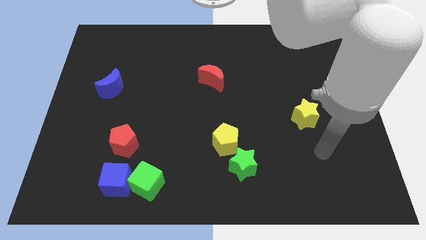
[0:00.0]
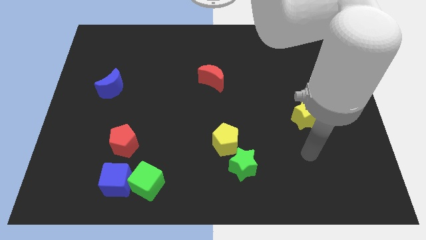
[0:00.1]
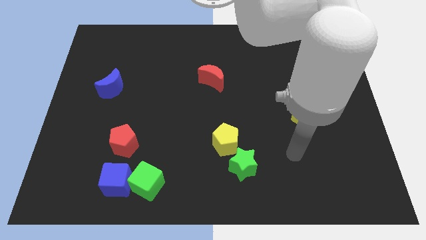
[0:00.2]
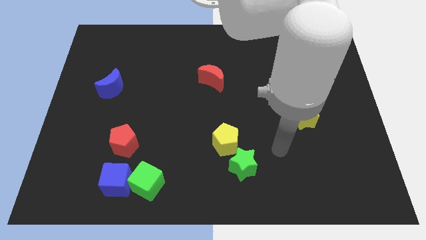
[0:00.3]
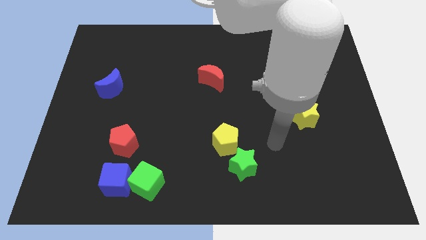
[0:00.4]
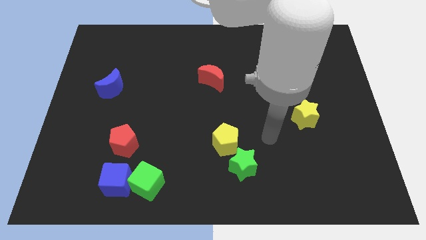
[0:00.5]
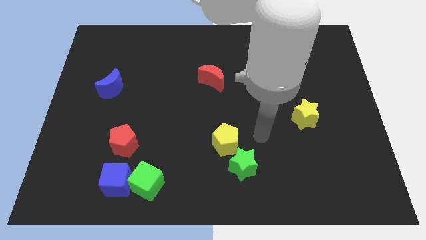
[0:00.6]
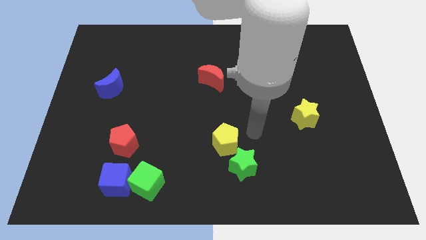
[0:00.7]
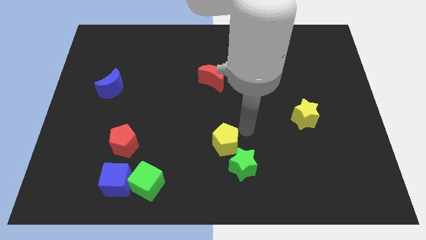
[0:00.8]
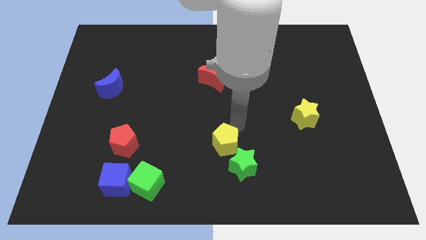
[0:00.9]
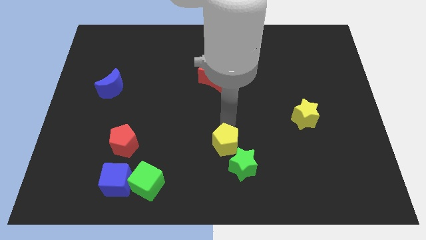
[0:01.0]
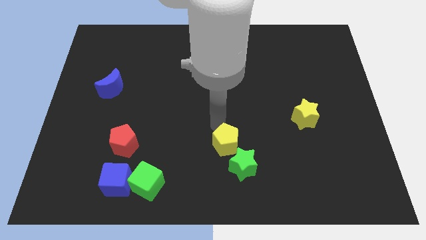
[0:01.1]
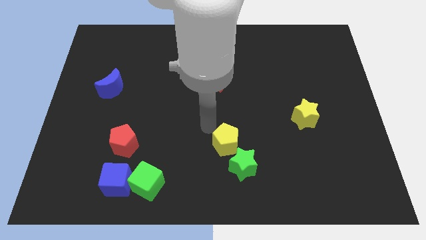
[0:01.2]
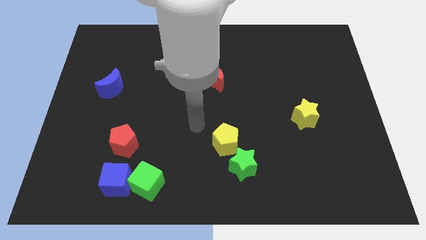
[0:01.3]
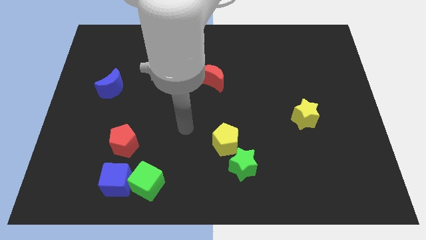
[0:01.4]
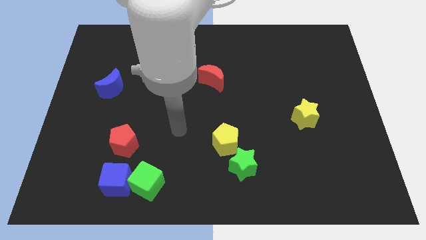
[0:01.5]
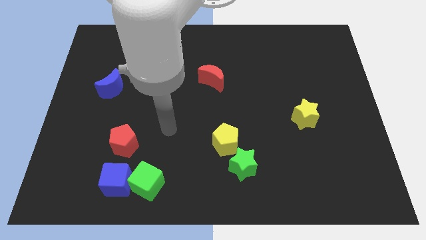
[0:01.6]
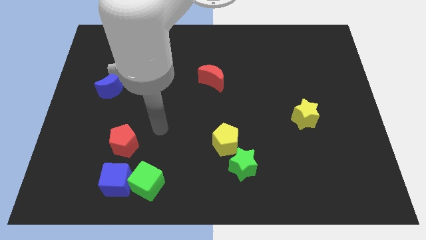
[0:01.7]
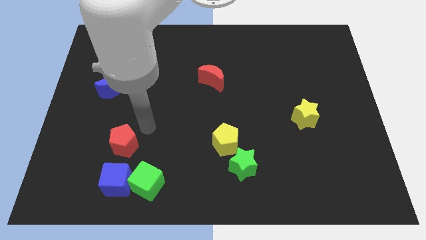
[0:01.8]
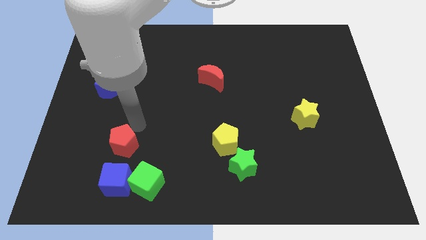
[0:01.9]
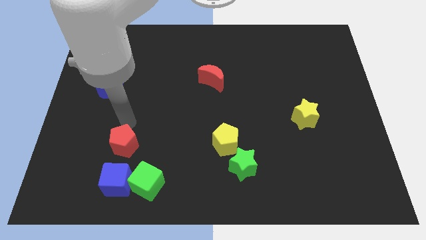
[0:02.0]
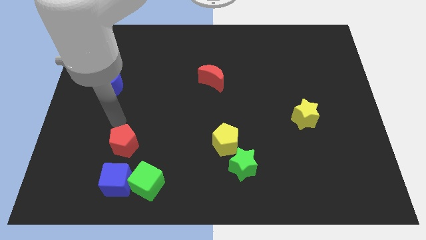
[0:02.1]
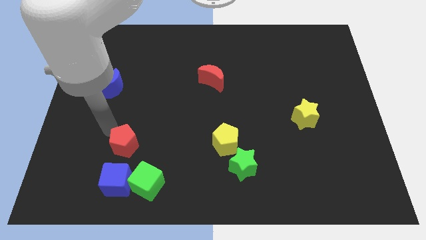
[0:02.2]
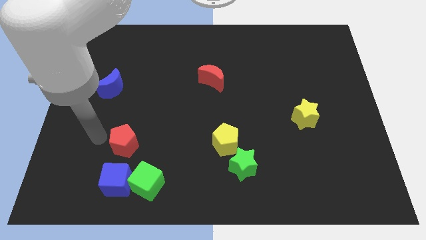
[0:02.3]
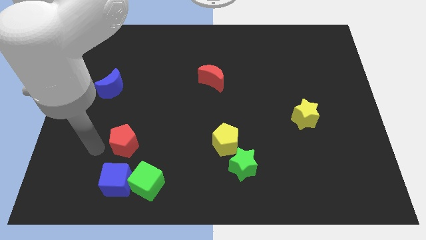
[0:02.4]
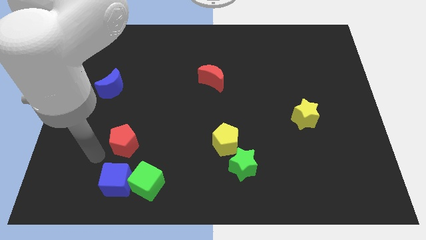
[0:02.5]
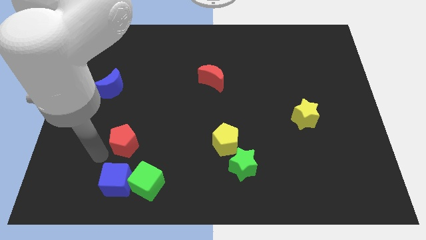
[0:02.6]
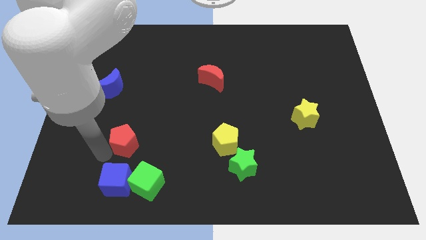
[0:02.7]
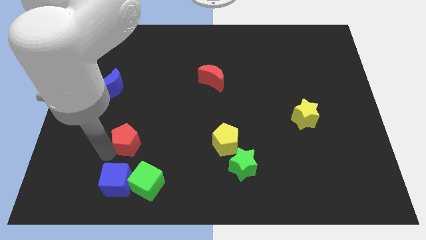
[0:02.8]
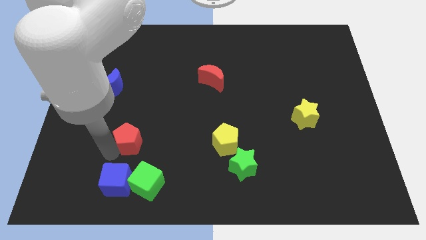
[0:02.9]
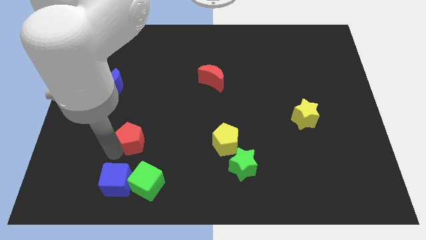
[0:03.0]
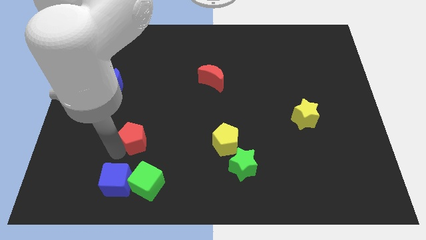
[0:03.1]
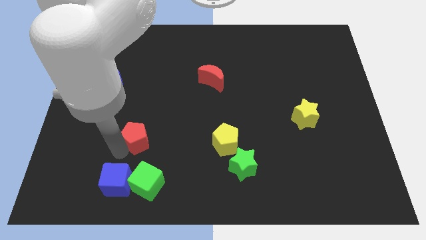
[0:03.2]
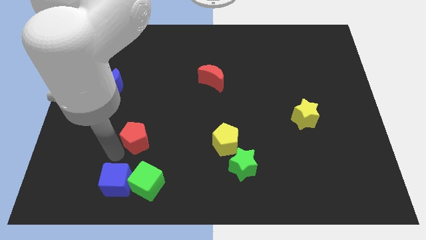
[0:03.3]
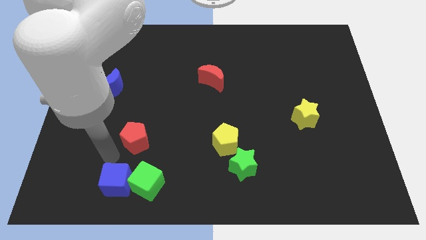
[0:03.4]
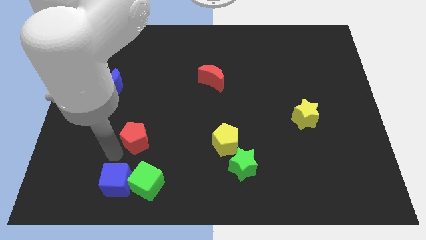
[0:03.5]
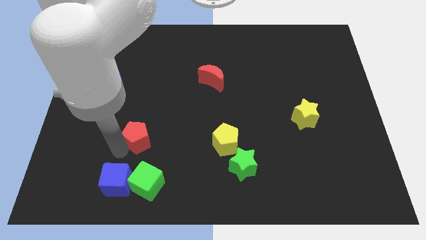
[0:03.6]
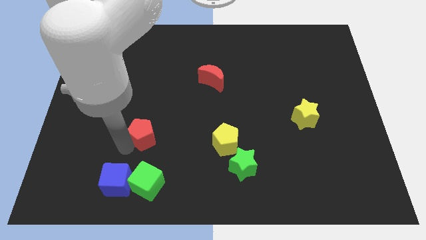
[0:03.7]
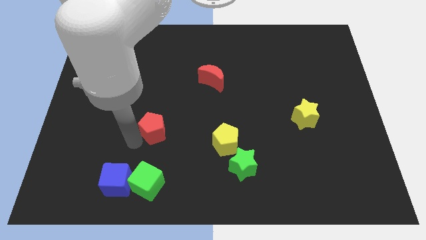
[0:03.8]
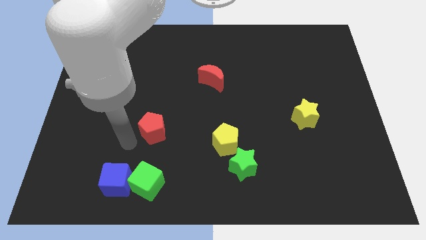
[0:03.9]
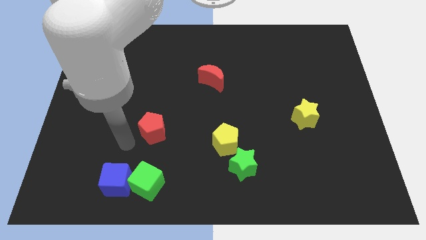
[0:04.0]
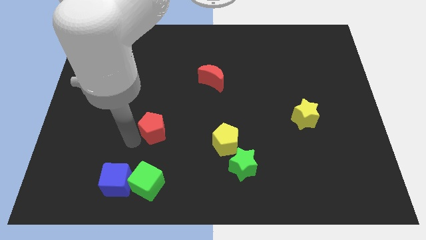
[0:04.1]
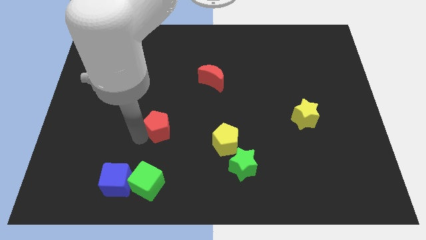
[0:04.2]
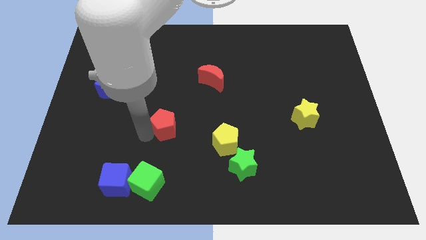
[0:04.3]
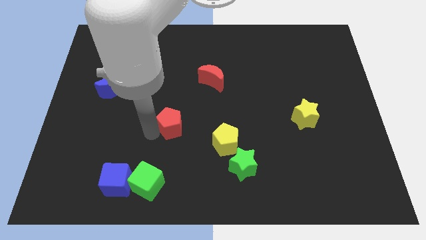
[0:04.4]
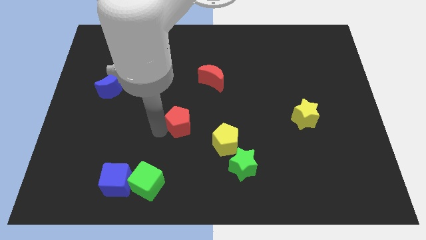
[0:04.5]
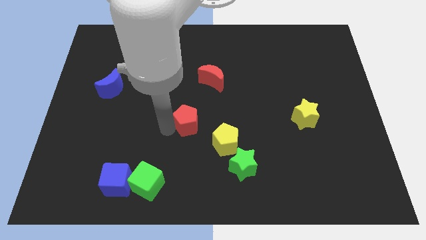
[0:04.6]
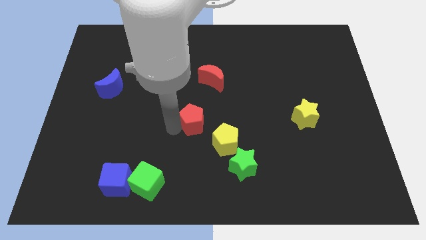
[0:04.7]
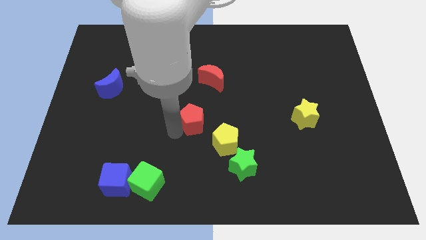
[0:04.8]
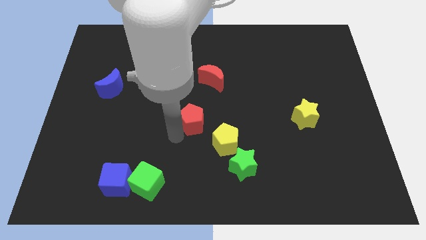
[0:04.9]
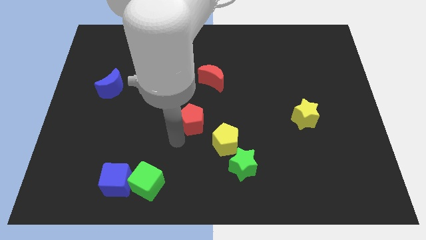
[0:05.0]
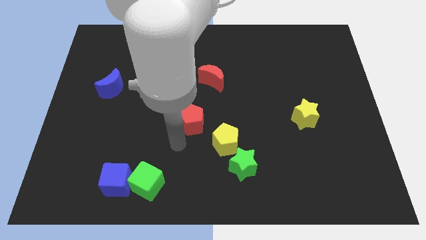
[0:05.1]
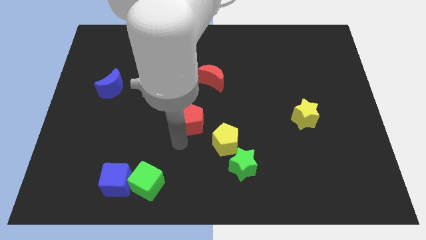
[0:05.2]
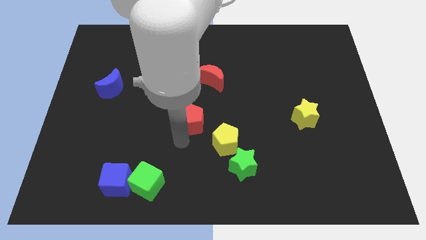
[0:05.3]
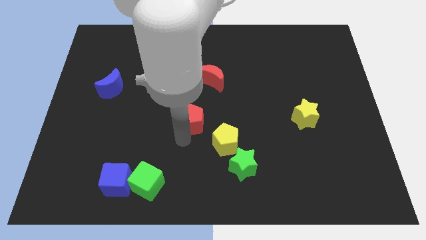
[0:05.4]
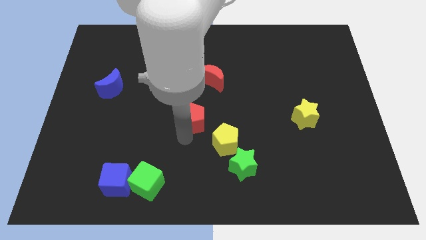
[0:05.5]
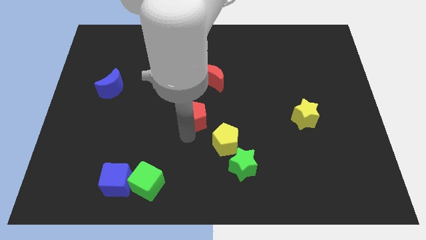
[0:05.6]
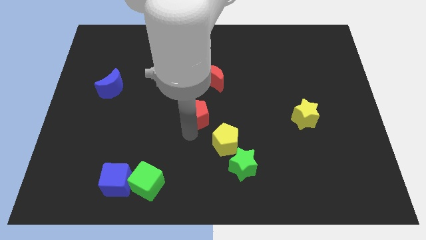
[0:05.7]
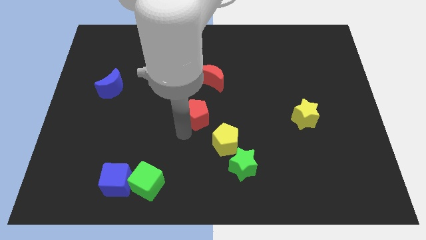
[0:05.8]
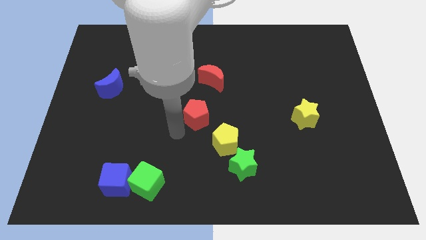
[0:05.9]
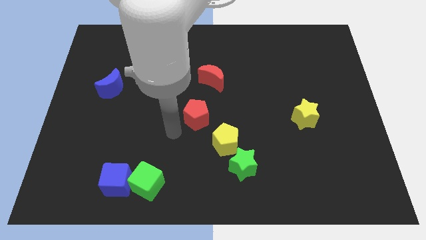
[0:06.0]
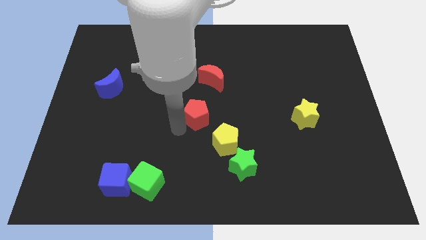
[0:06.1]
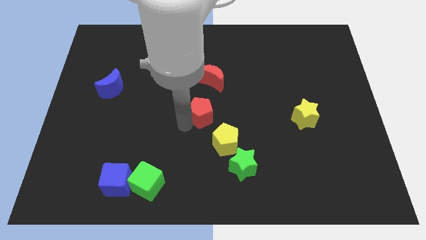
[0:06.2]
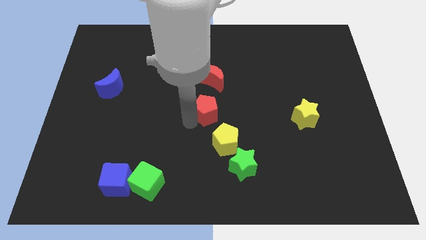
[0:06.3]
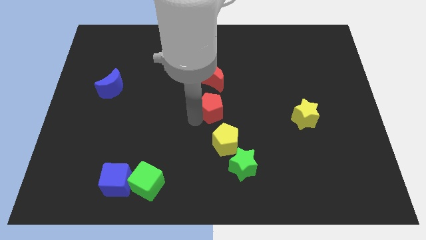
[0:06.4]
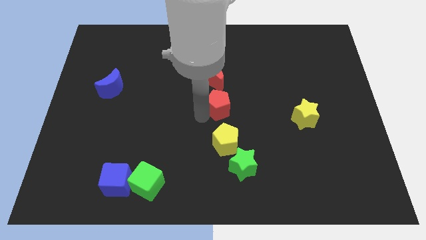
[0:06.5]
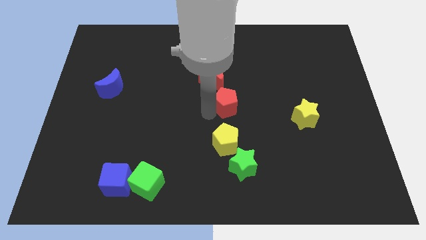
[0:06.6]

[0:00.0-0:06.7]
slide the red pentagon diagonally down and to the right of the red moon

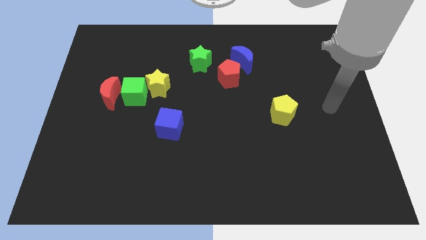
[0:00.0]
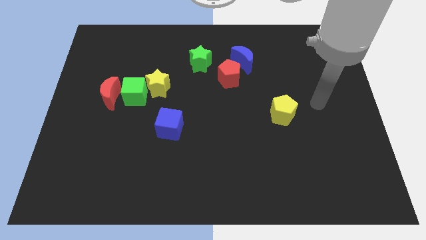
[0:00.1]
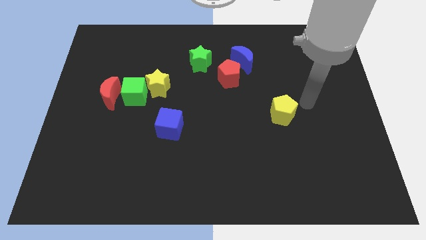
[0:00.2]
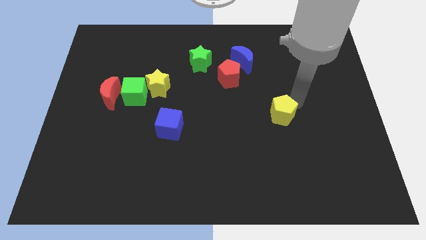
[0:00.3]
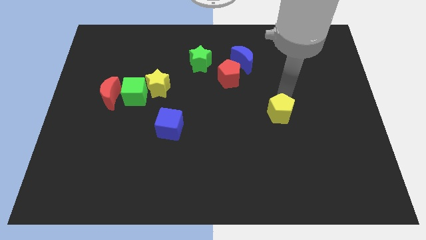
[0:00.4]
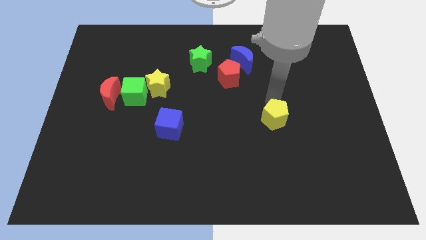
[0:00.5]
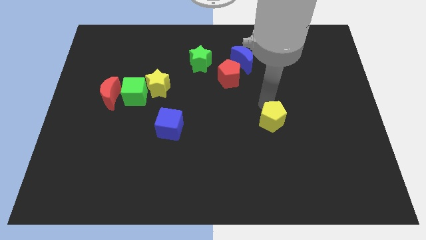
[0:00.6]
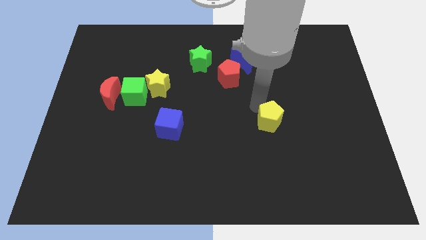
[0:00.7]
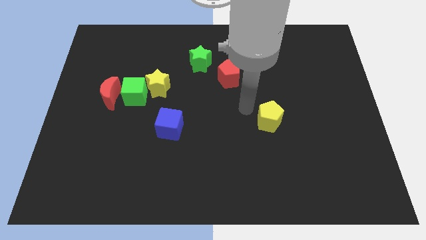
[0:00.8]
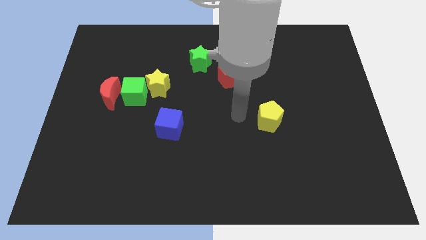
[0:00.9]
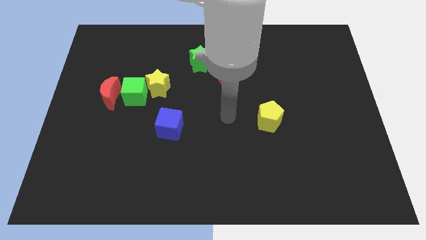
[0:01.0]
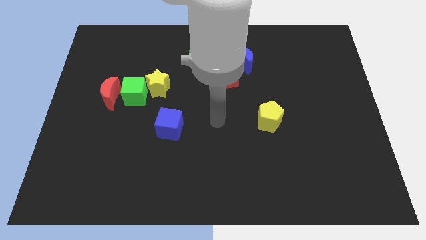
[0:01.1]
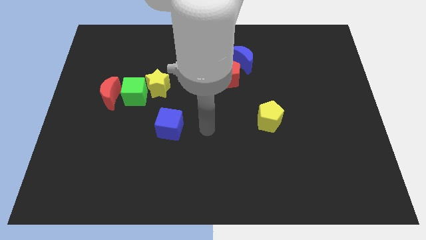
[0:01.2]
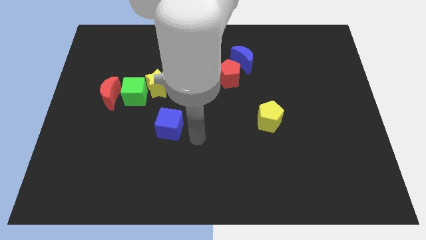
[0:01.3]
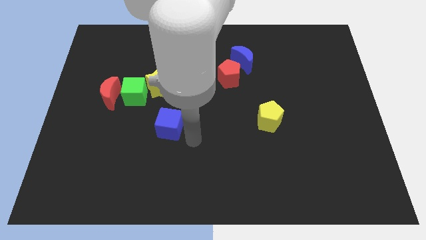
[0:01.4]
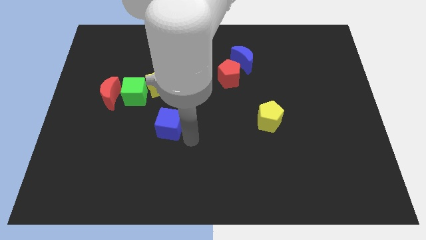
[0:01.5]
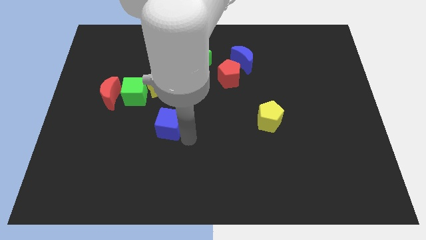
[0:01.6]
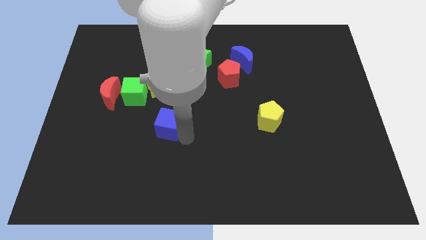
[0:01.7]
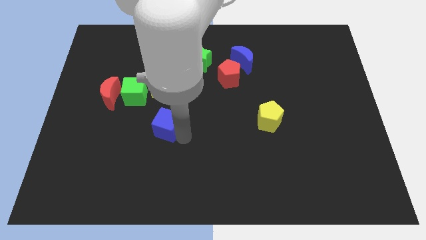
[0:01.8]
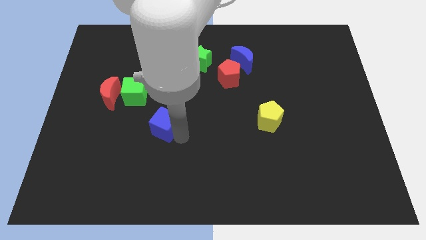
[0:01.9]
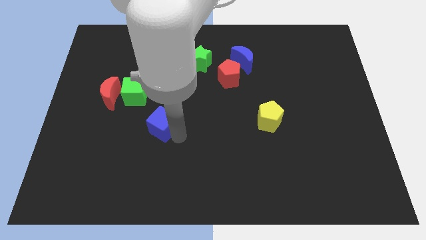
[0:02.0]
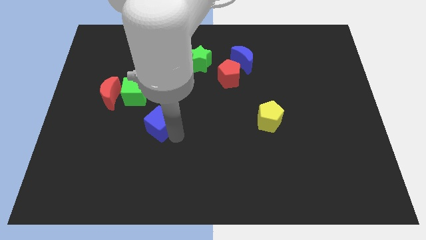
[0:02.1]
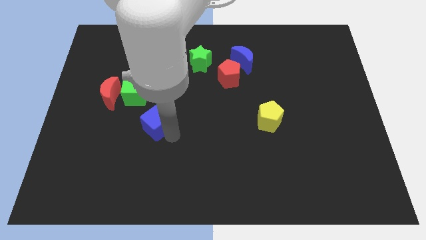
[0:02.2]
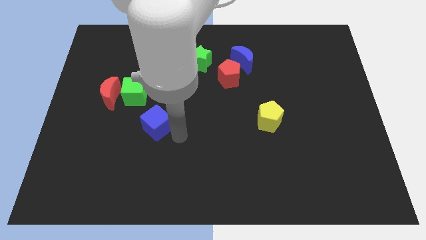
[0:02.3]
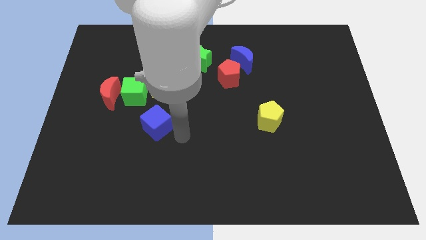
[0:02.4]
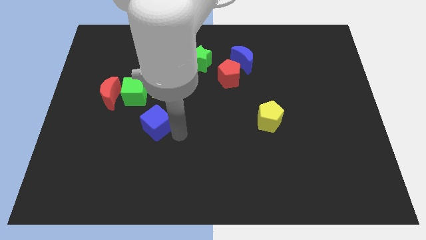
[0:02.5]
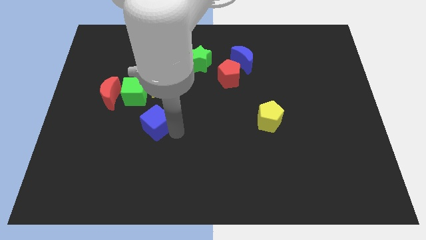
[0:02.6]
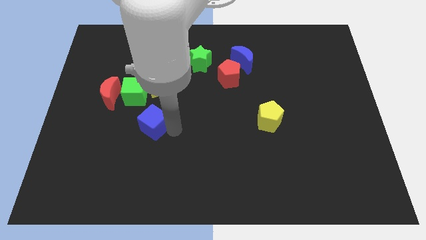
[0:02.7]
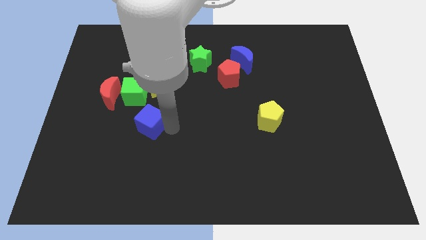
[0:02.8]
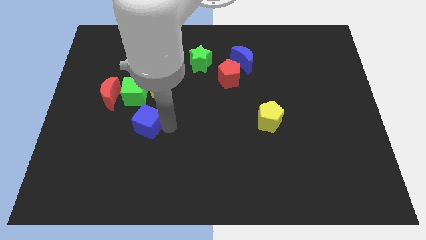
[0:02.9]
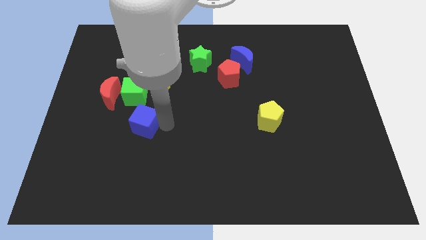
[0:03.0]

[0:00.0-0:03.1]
push the blue cube diagonally down and to the right of the red moon
